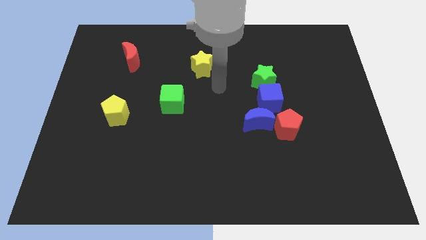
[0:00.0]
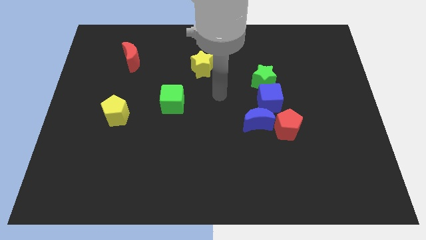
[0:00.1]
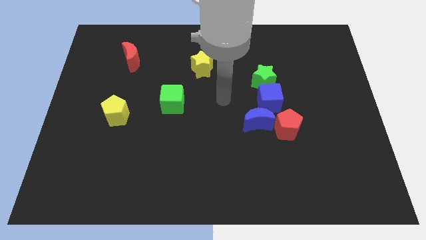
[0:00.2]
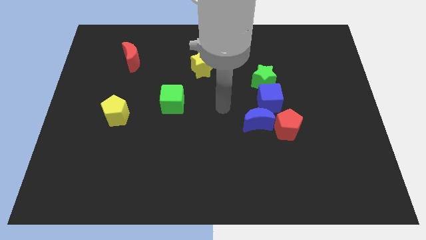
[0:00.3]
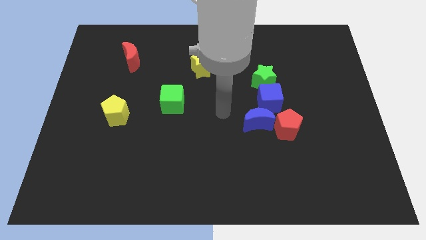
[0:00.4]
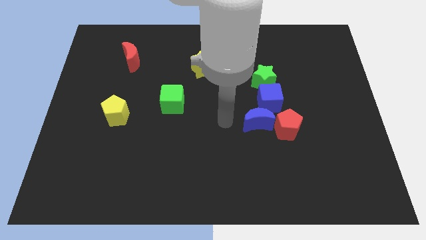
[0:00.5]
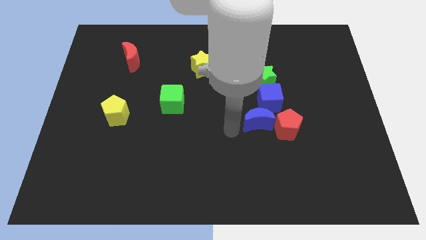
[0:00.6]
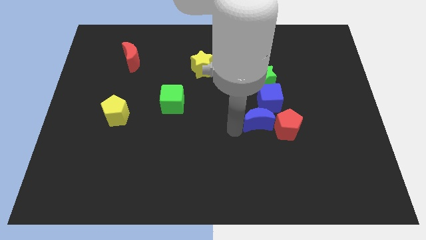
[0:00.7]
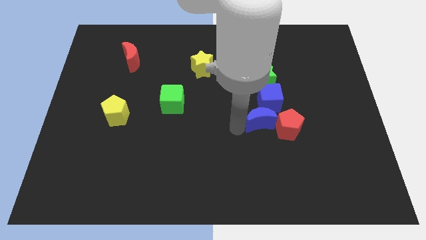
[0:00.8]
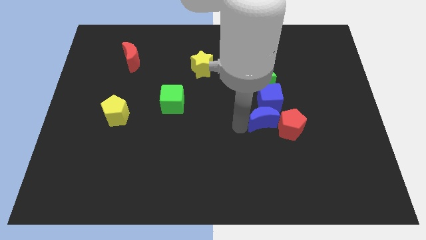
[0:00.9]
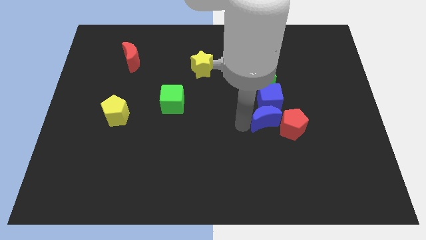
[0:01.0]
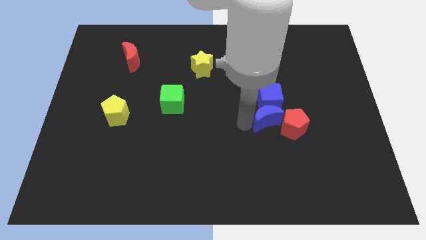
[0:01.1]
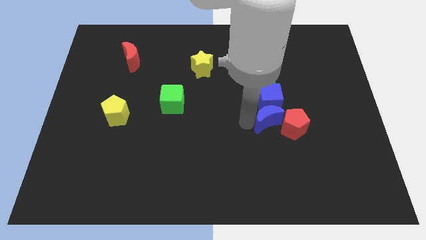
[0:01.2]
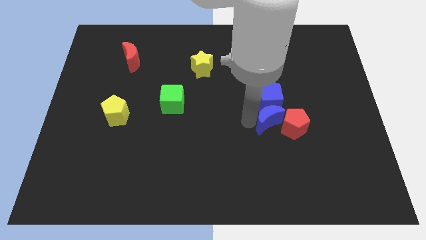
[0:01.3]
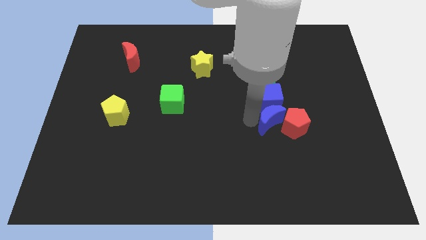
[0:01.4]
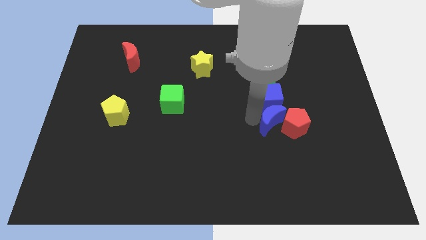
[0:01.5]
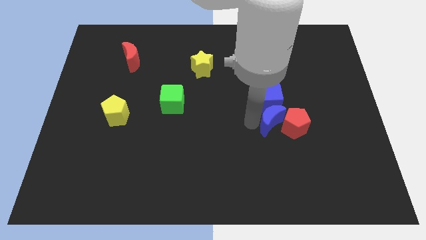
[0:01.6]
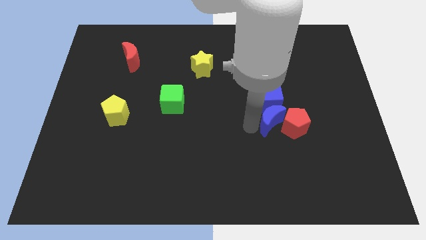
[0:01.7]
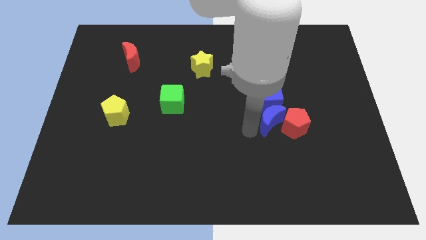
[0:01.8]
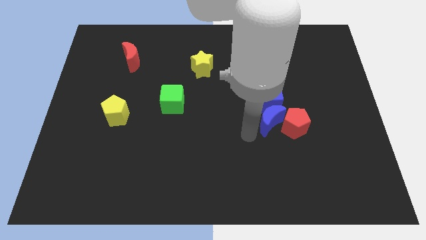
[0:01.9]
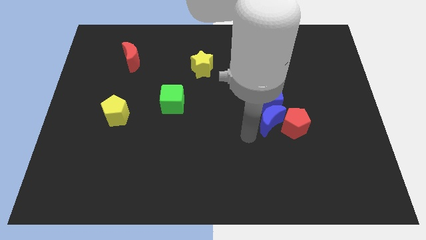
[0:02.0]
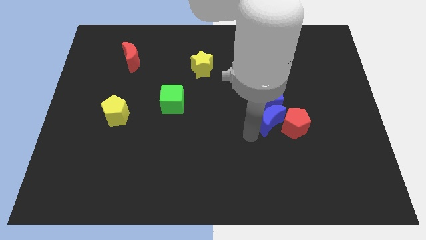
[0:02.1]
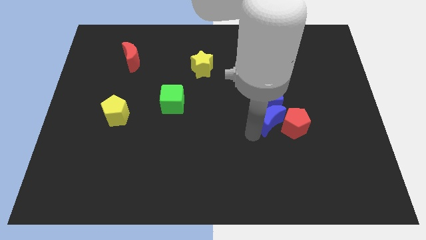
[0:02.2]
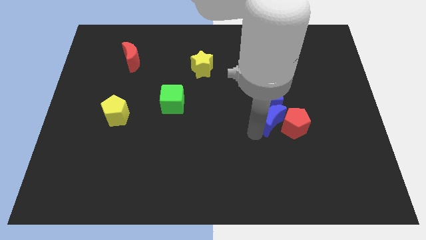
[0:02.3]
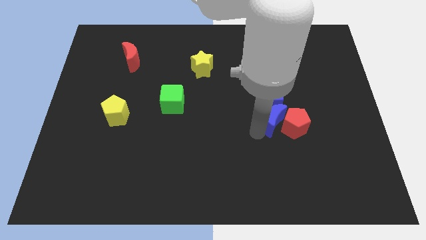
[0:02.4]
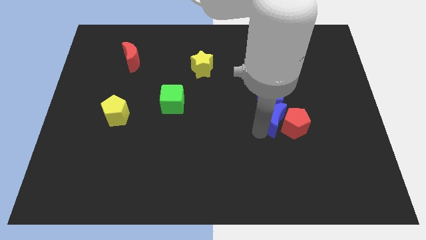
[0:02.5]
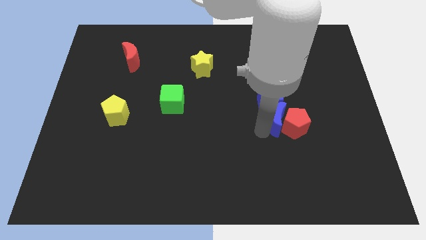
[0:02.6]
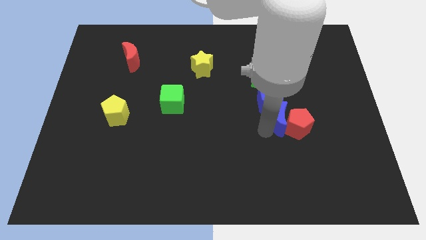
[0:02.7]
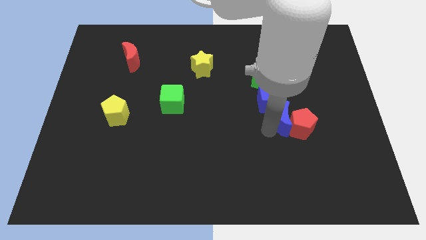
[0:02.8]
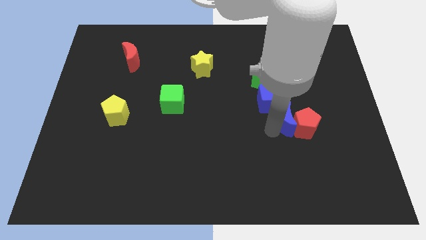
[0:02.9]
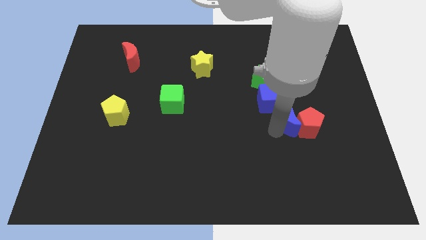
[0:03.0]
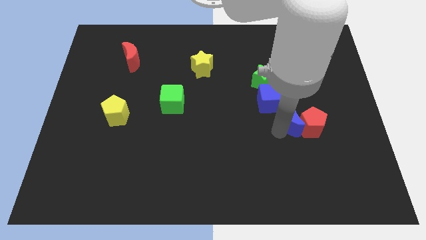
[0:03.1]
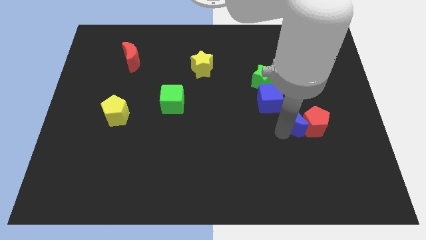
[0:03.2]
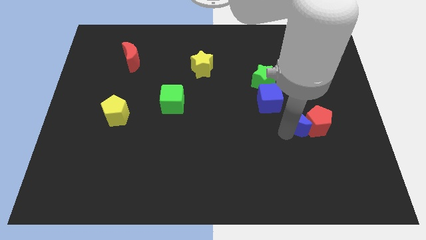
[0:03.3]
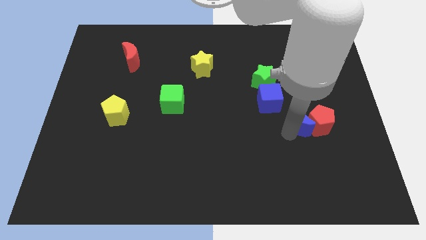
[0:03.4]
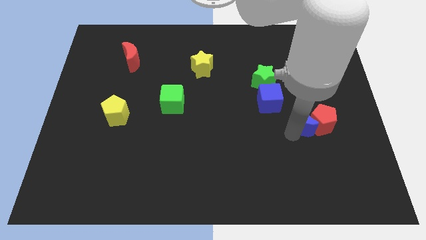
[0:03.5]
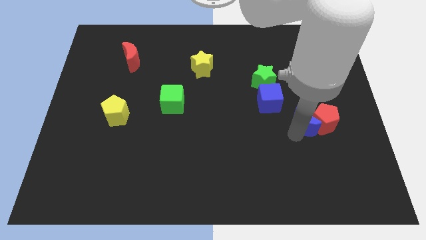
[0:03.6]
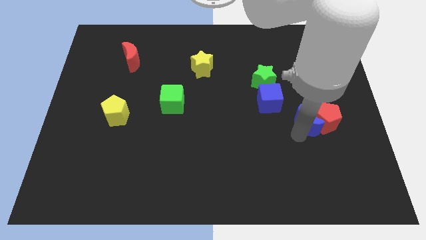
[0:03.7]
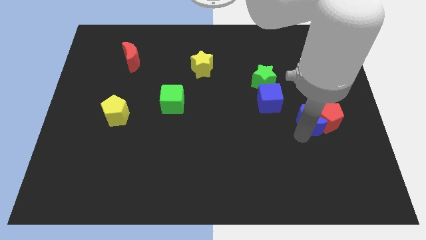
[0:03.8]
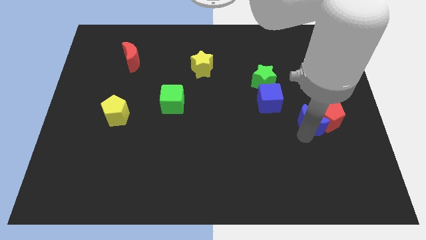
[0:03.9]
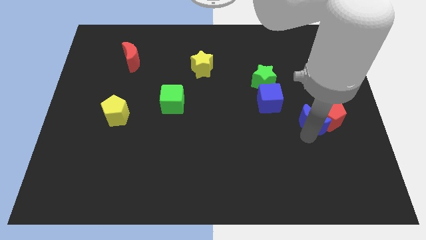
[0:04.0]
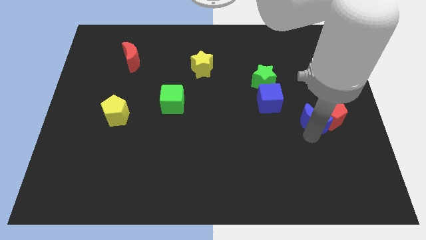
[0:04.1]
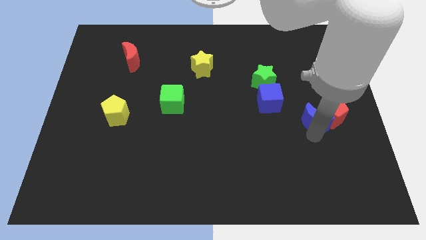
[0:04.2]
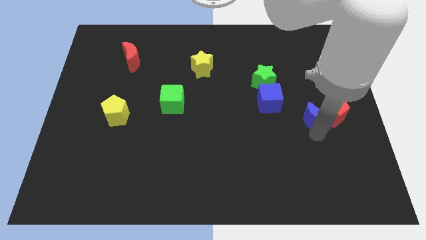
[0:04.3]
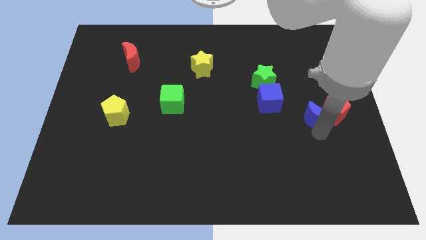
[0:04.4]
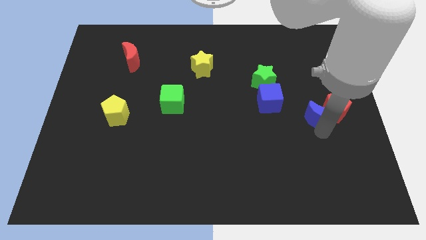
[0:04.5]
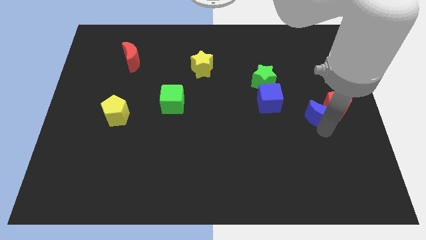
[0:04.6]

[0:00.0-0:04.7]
slide the blue moon to the right side of the blue cube

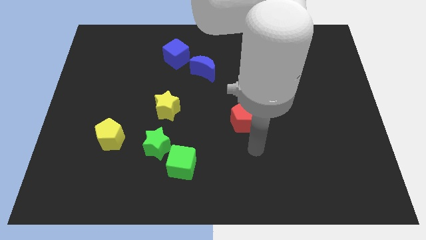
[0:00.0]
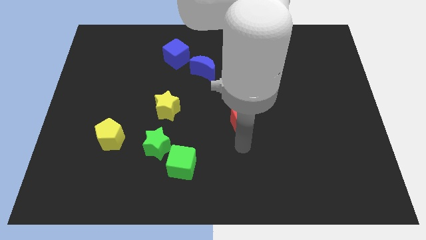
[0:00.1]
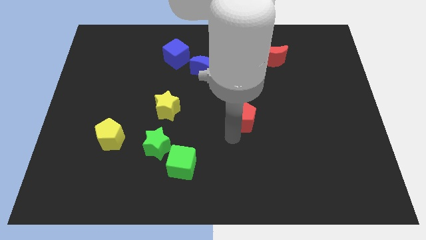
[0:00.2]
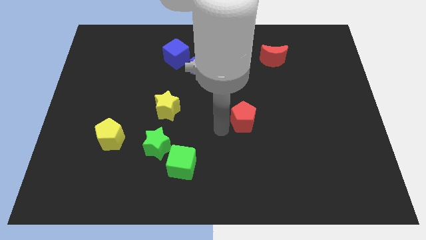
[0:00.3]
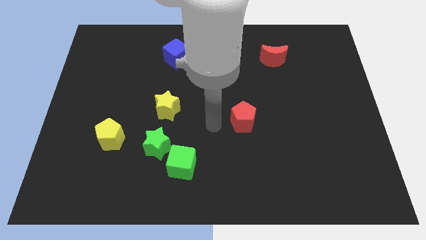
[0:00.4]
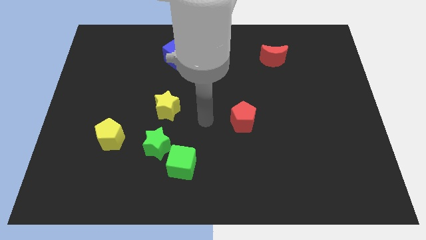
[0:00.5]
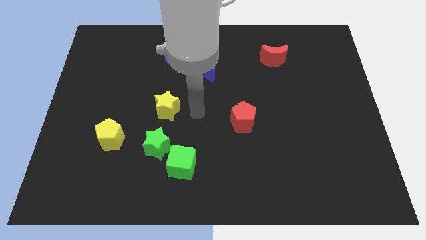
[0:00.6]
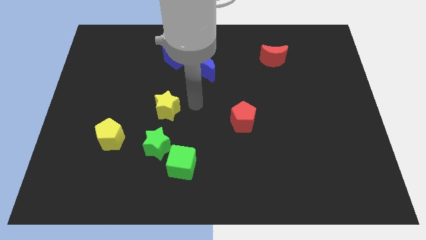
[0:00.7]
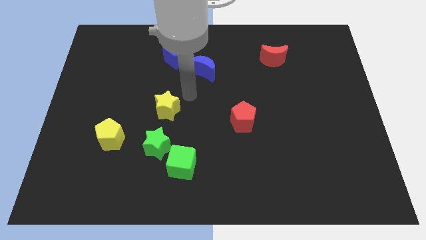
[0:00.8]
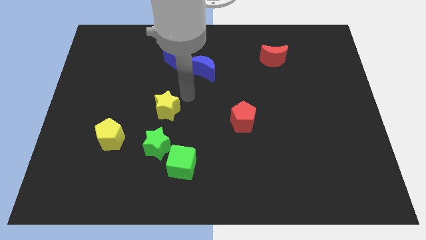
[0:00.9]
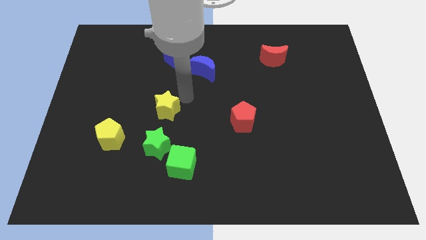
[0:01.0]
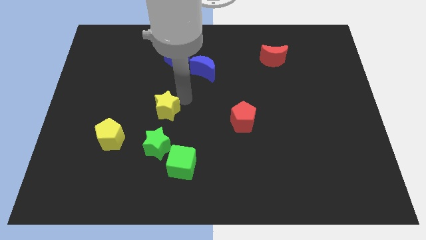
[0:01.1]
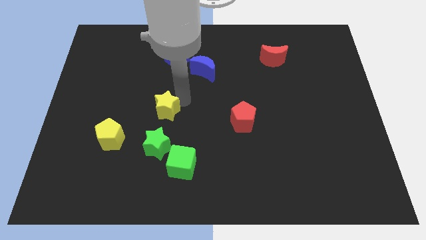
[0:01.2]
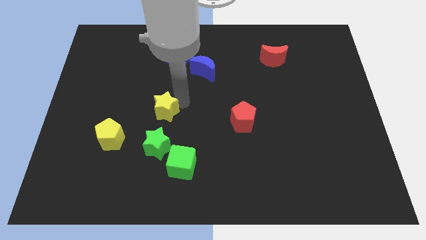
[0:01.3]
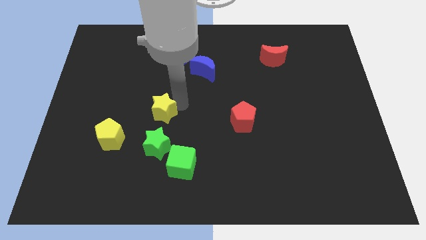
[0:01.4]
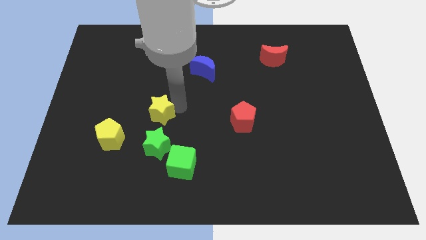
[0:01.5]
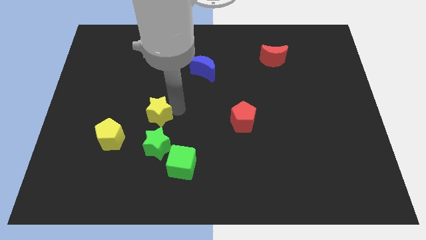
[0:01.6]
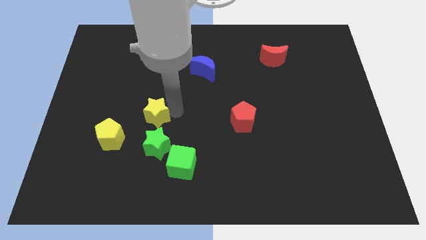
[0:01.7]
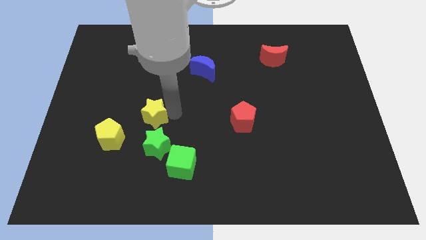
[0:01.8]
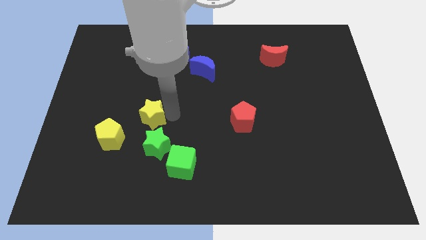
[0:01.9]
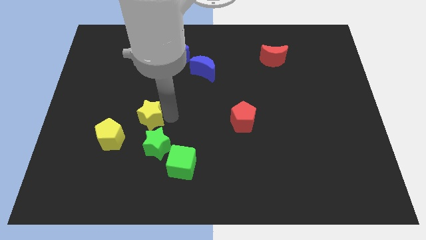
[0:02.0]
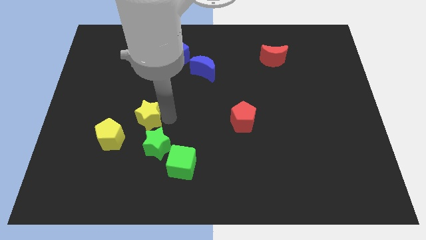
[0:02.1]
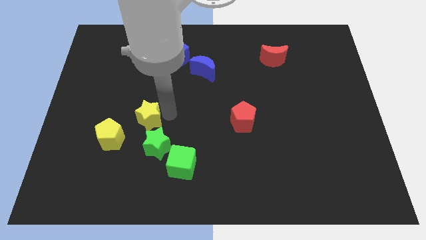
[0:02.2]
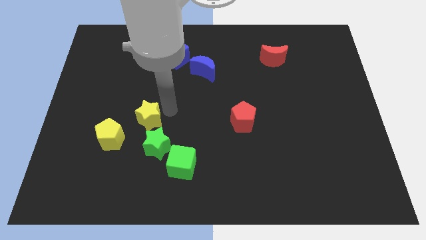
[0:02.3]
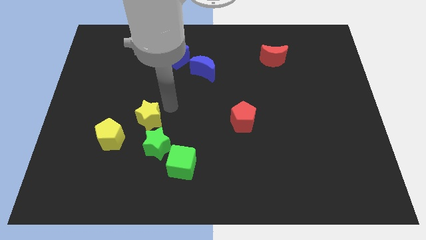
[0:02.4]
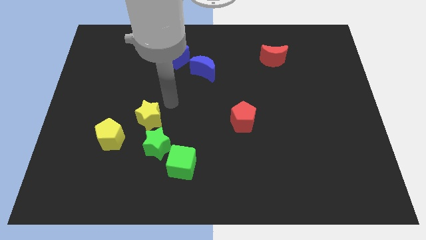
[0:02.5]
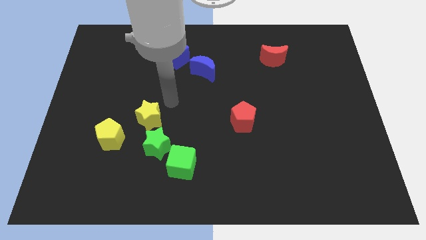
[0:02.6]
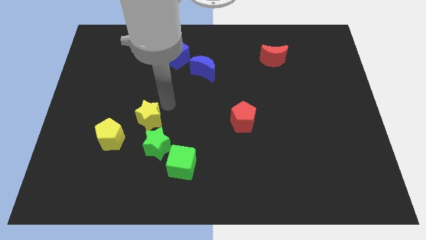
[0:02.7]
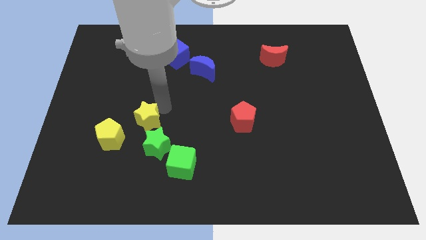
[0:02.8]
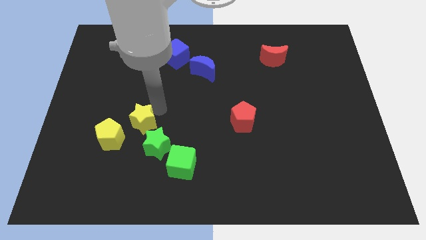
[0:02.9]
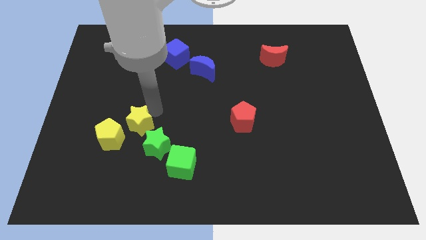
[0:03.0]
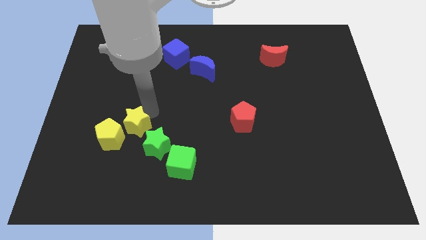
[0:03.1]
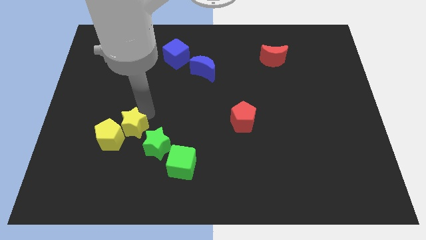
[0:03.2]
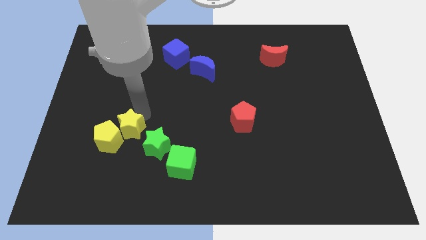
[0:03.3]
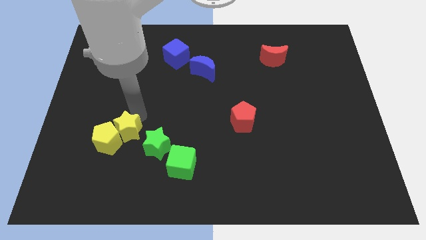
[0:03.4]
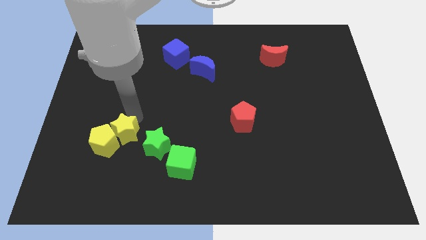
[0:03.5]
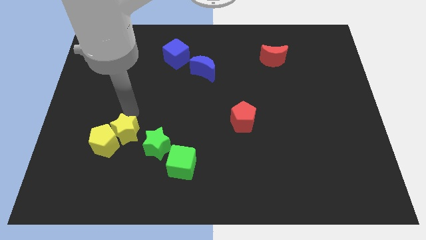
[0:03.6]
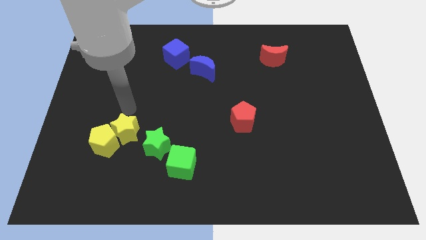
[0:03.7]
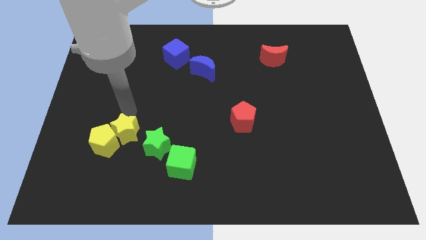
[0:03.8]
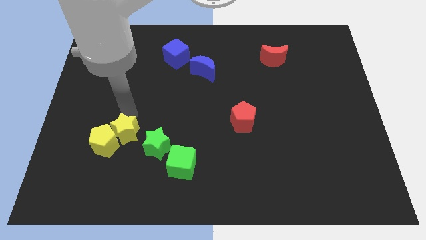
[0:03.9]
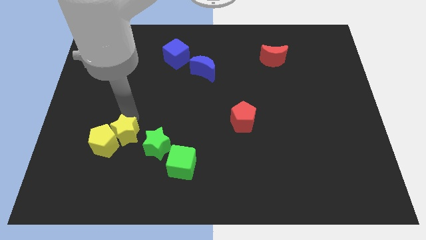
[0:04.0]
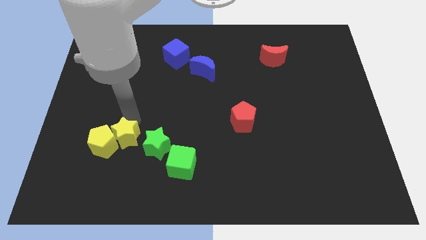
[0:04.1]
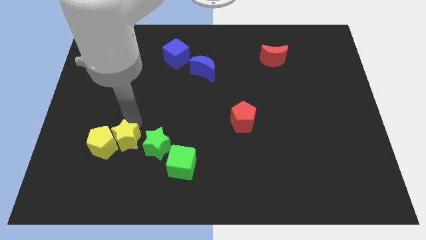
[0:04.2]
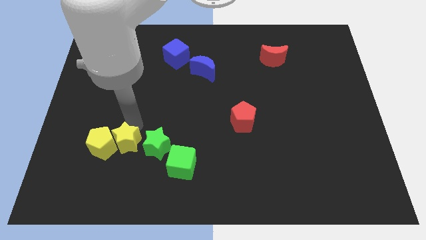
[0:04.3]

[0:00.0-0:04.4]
put the yellow star to the bottom right of the yellow pentagon
